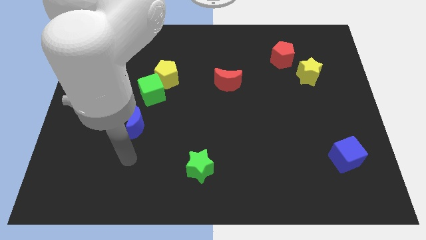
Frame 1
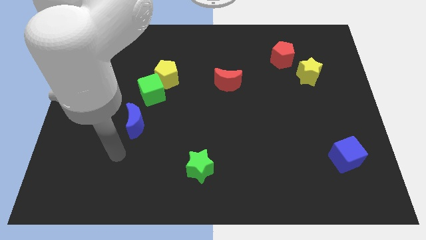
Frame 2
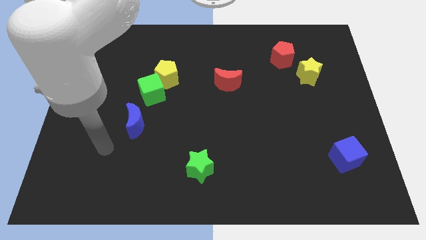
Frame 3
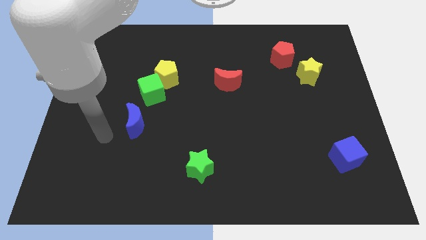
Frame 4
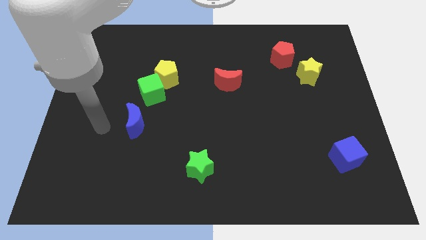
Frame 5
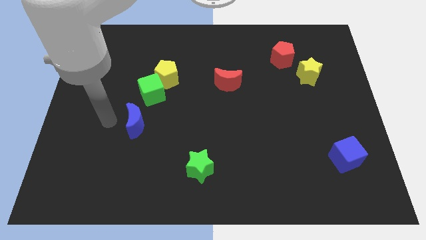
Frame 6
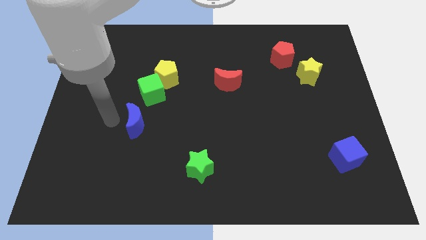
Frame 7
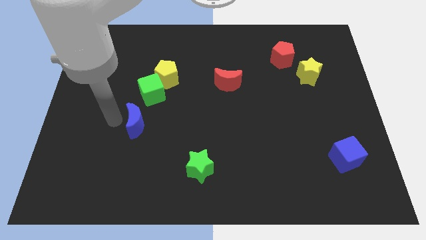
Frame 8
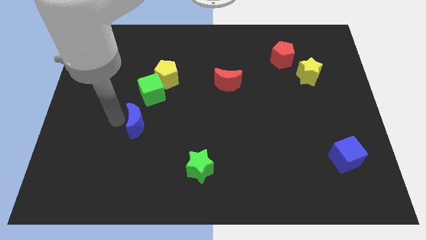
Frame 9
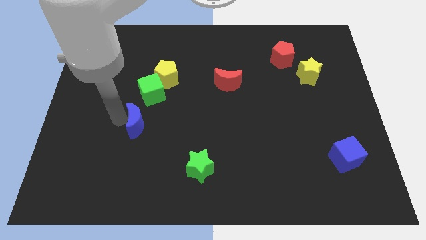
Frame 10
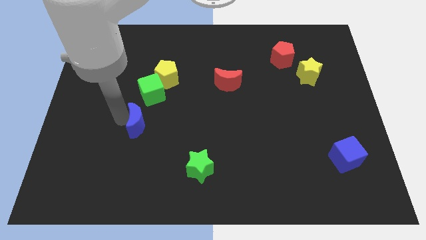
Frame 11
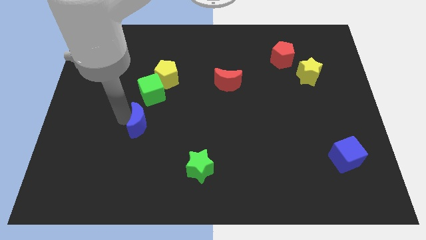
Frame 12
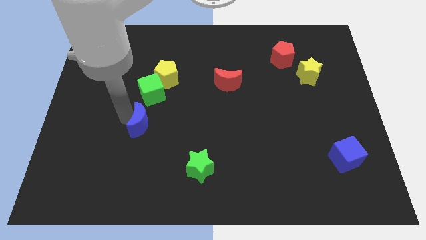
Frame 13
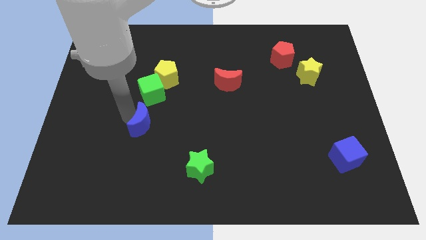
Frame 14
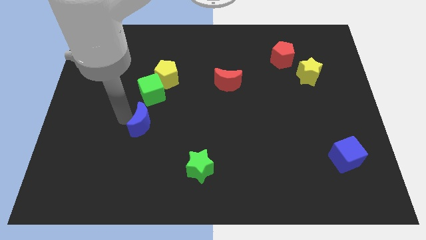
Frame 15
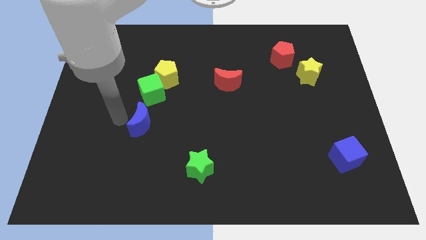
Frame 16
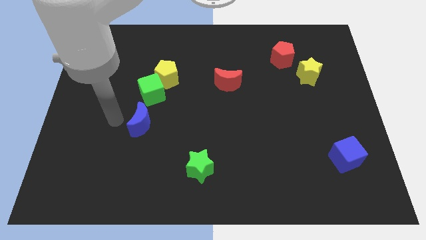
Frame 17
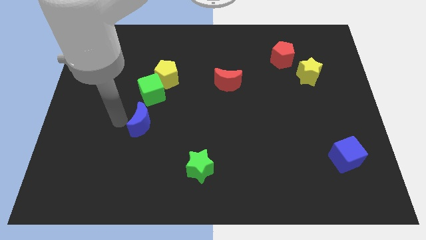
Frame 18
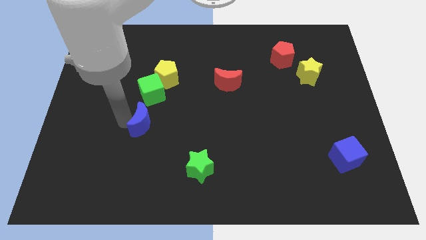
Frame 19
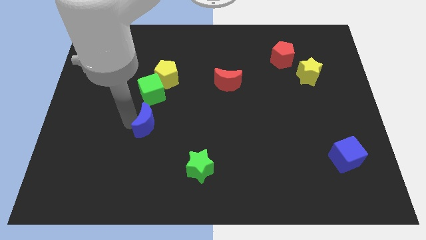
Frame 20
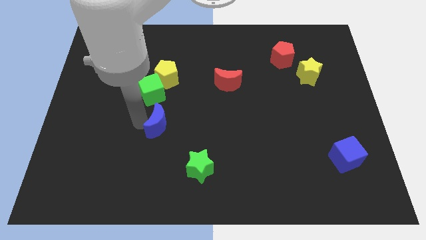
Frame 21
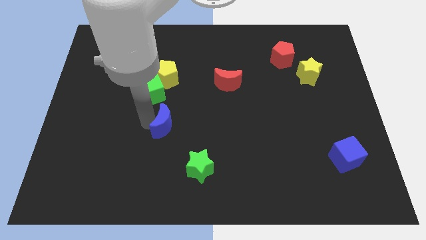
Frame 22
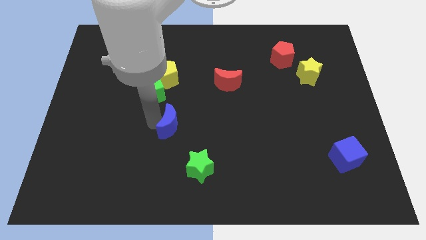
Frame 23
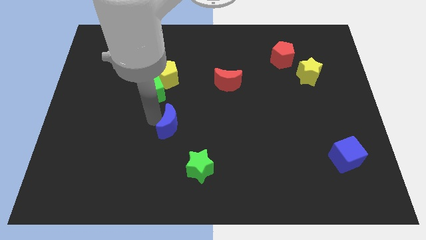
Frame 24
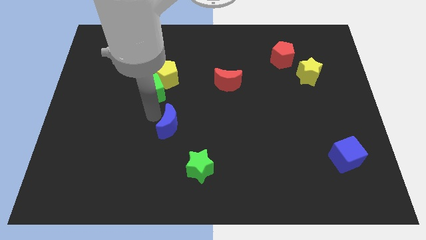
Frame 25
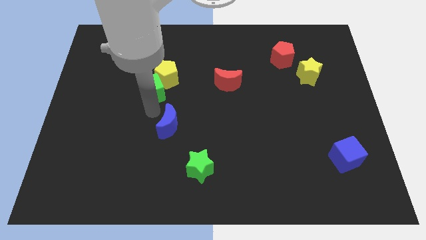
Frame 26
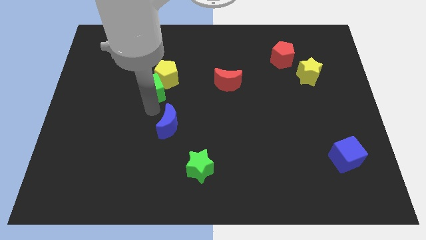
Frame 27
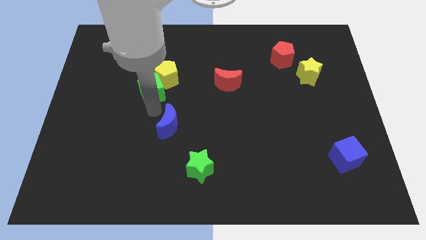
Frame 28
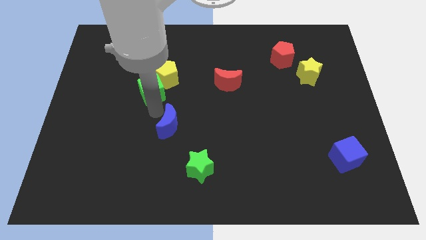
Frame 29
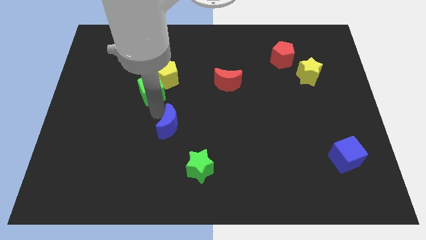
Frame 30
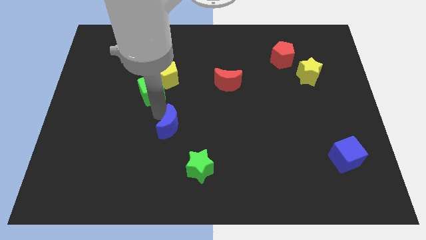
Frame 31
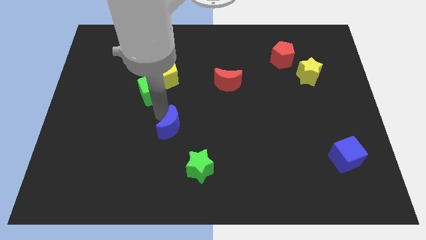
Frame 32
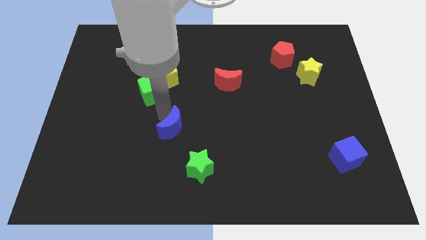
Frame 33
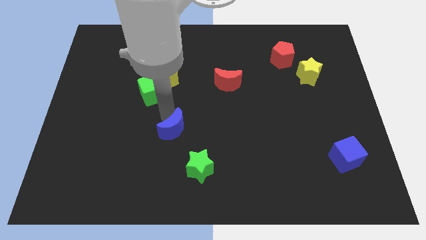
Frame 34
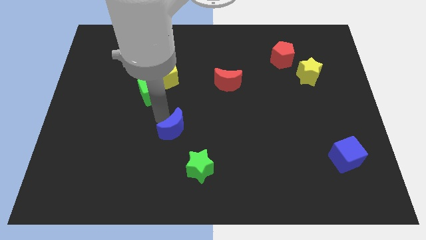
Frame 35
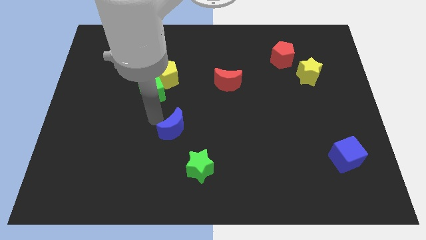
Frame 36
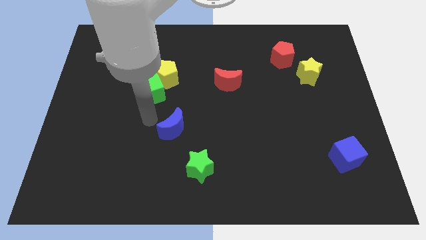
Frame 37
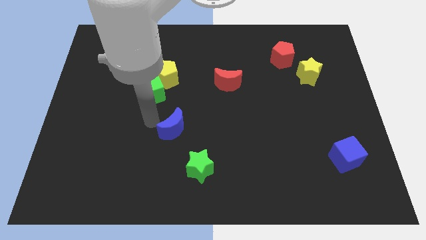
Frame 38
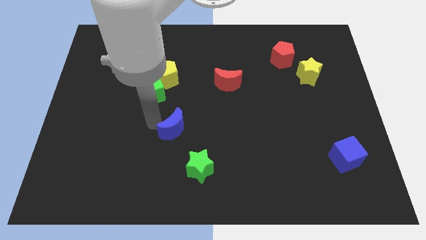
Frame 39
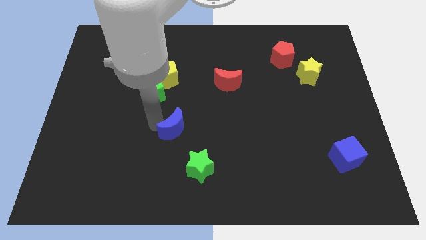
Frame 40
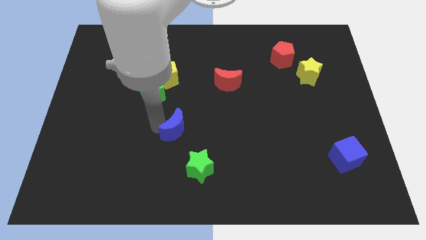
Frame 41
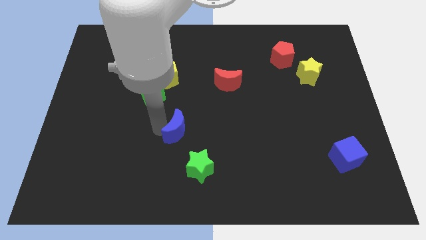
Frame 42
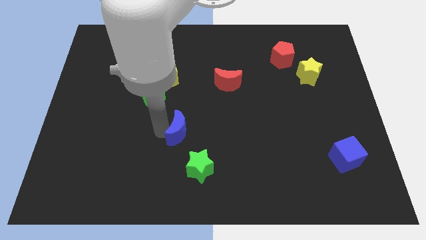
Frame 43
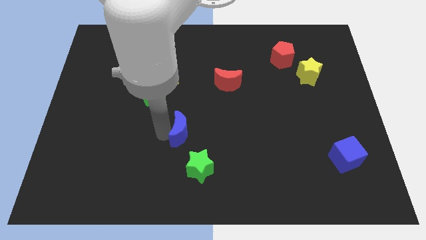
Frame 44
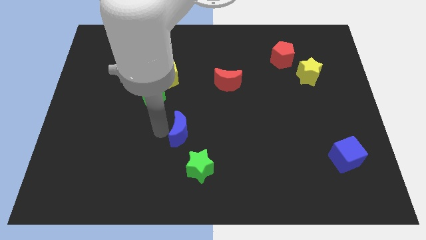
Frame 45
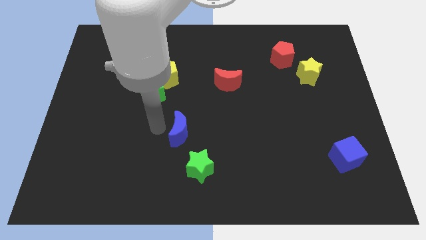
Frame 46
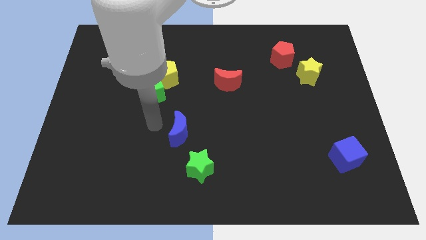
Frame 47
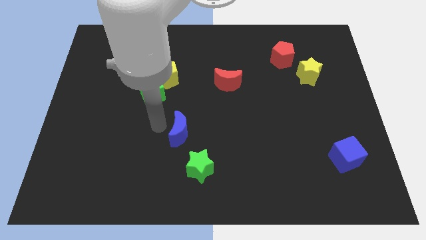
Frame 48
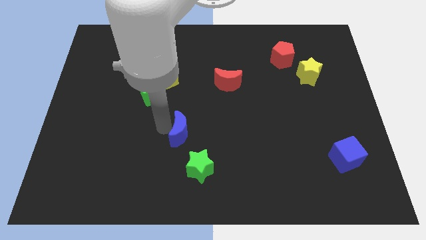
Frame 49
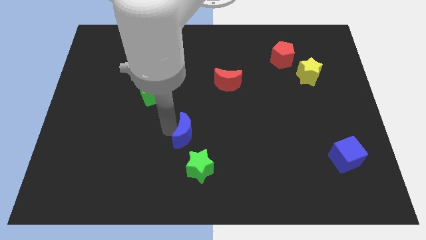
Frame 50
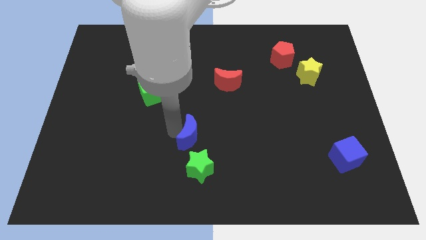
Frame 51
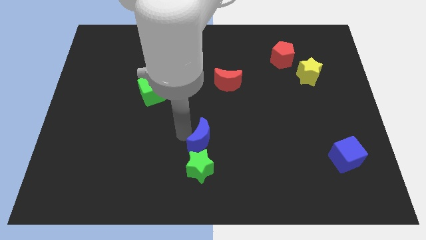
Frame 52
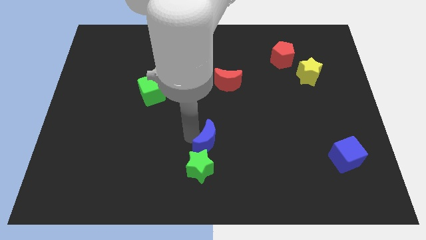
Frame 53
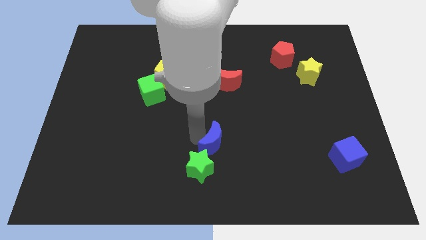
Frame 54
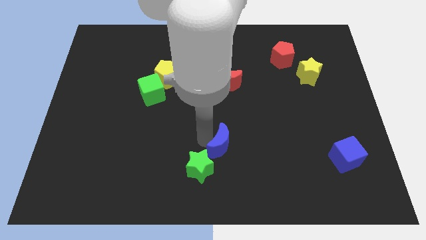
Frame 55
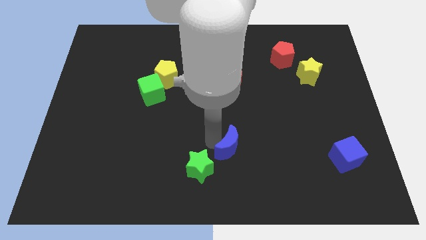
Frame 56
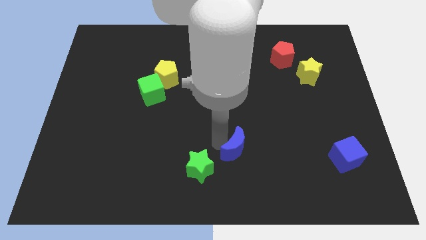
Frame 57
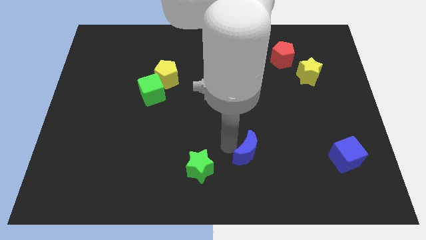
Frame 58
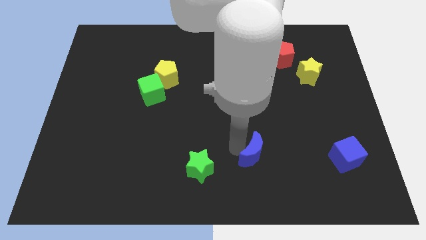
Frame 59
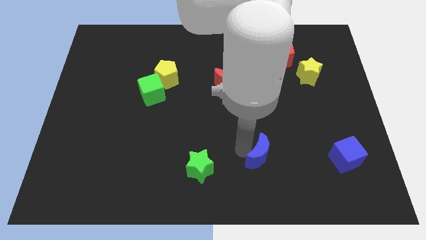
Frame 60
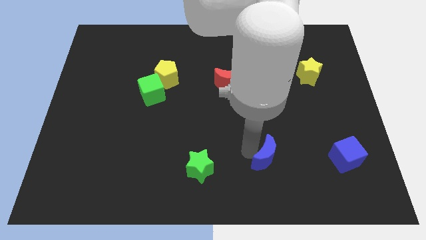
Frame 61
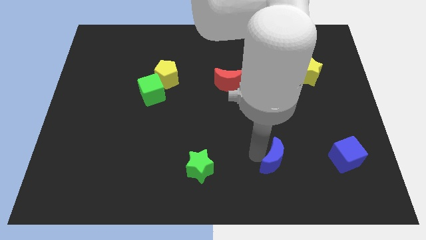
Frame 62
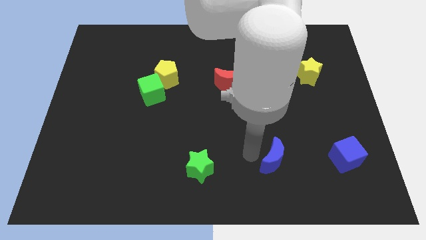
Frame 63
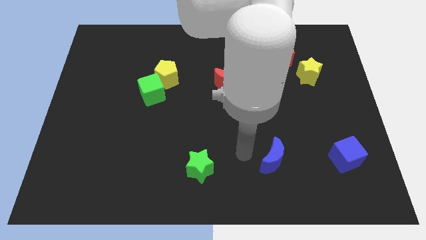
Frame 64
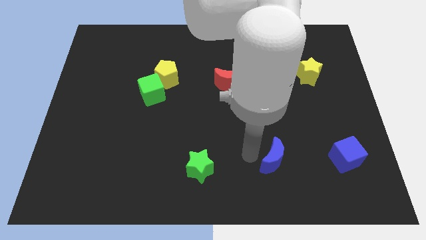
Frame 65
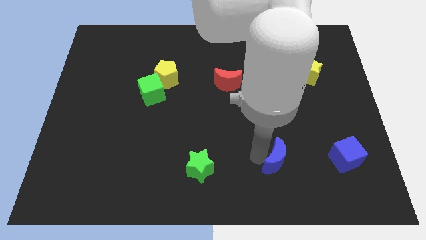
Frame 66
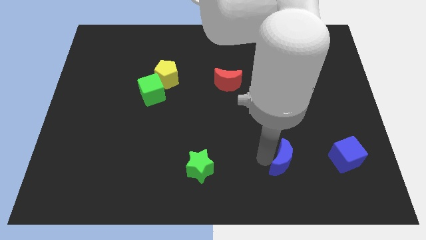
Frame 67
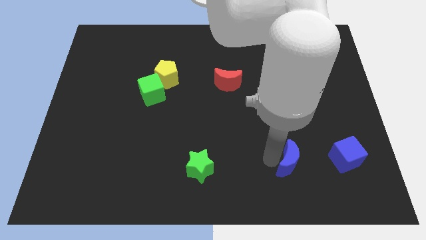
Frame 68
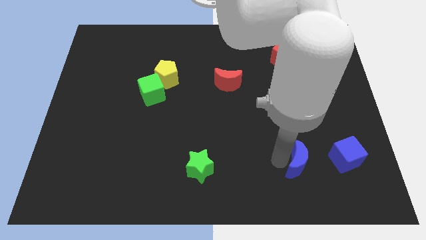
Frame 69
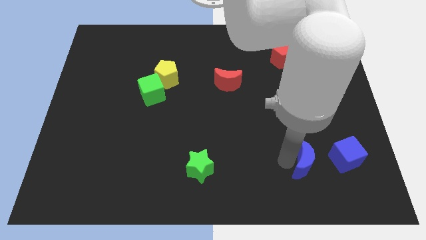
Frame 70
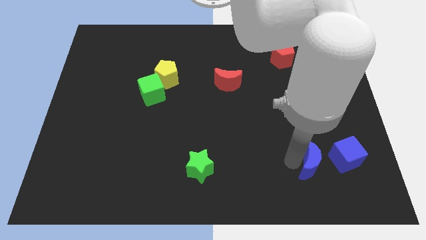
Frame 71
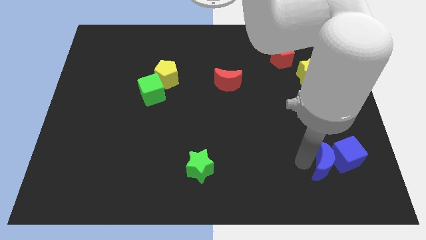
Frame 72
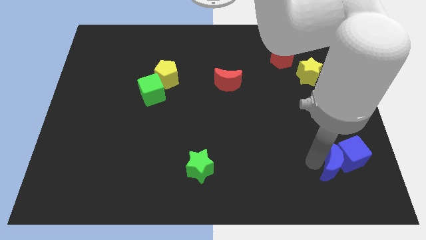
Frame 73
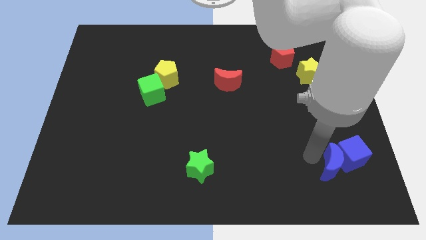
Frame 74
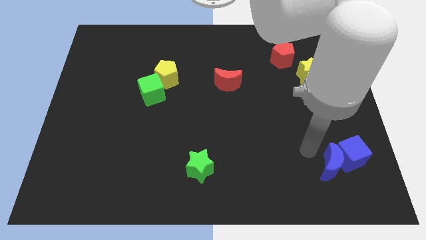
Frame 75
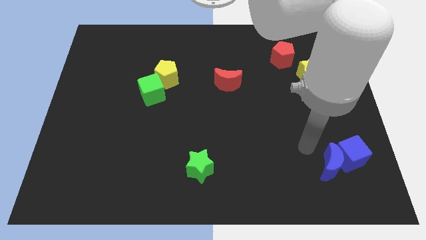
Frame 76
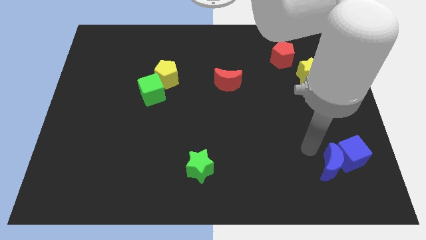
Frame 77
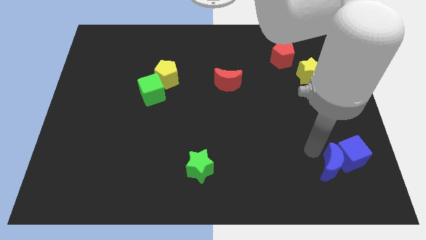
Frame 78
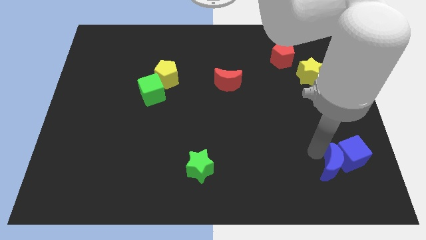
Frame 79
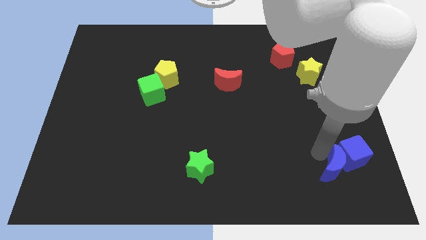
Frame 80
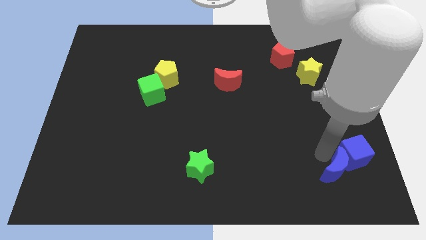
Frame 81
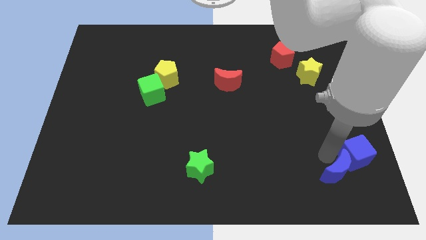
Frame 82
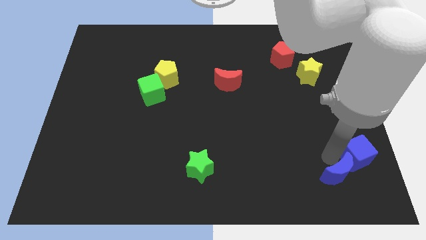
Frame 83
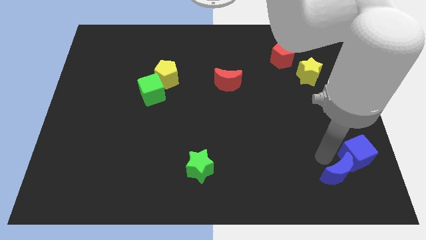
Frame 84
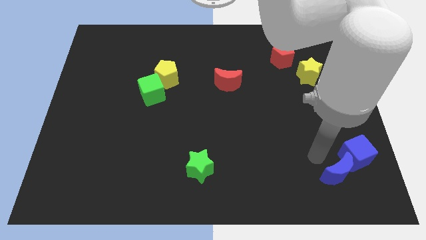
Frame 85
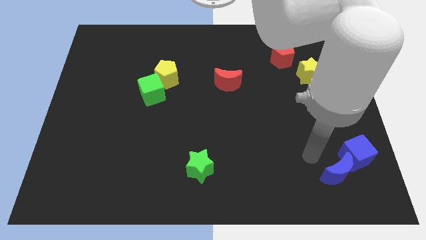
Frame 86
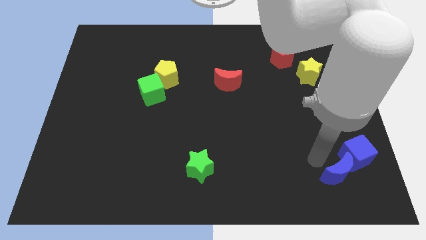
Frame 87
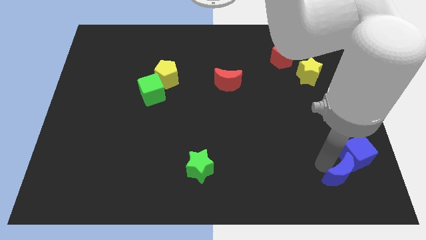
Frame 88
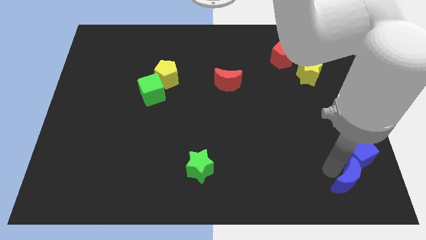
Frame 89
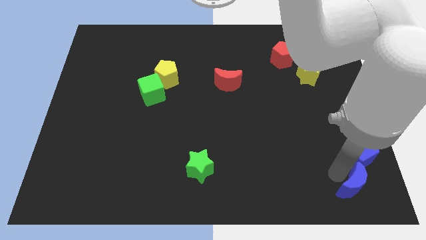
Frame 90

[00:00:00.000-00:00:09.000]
slide the blue moon to the bottom right corner
